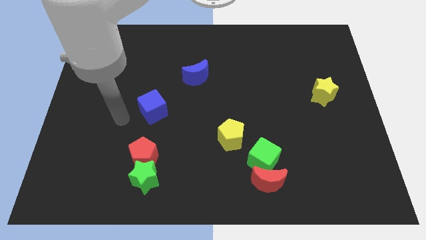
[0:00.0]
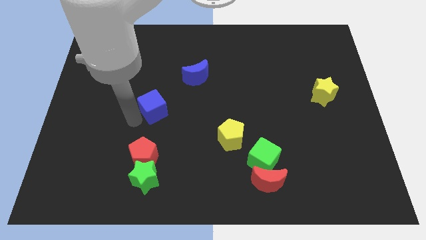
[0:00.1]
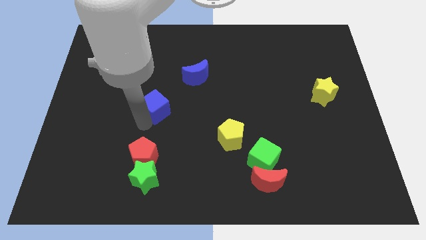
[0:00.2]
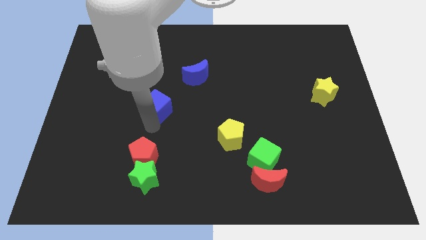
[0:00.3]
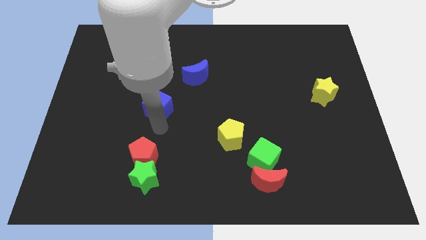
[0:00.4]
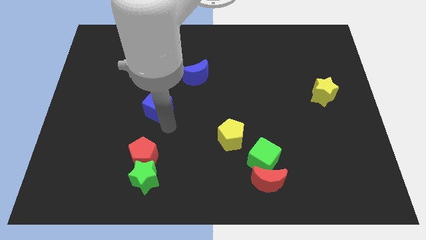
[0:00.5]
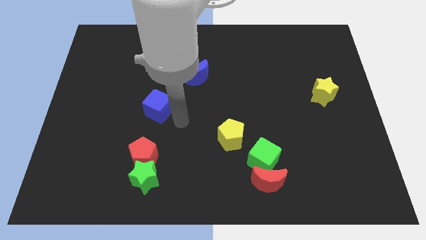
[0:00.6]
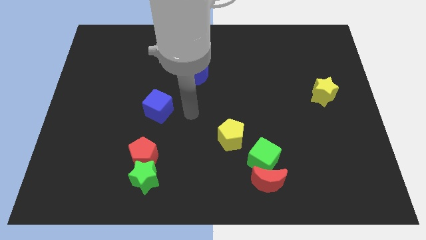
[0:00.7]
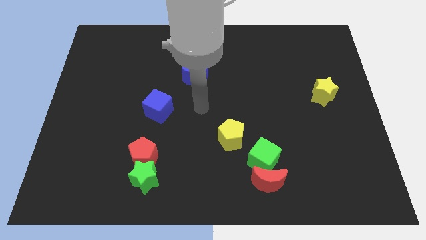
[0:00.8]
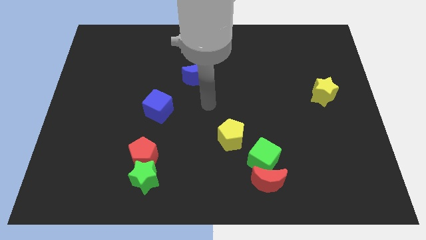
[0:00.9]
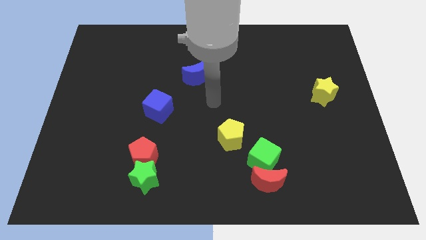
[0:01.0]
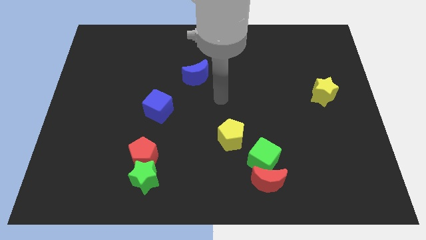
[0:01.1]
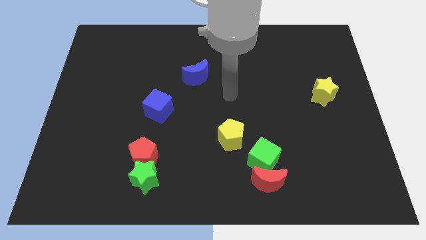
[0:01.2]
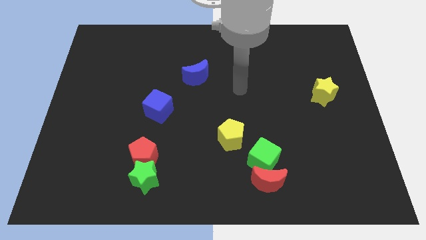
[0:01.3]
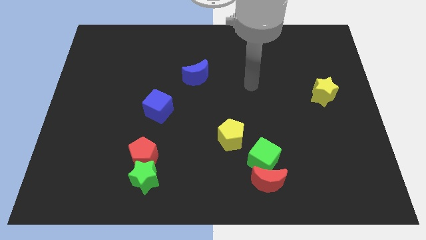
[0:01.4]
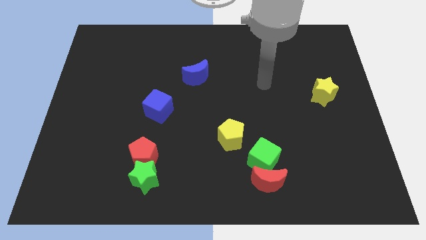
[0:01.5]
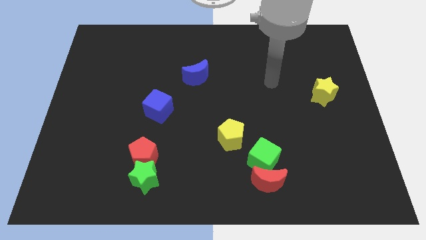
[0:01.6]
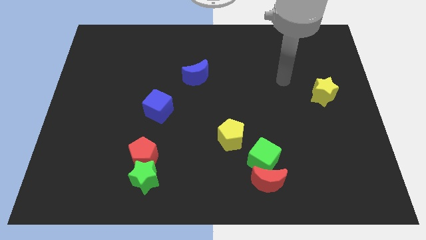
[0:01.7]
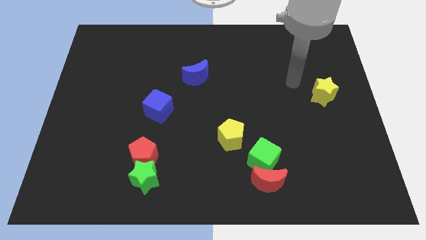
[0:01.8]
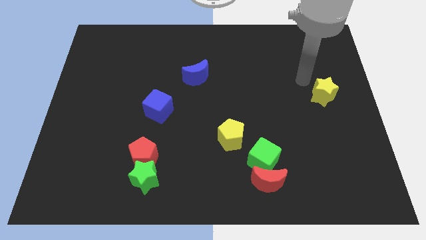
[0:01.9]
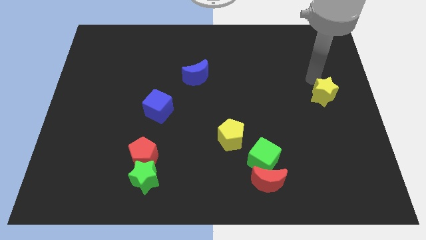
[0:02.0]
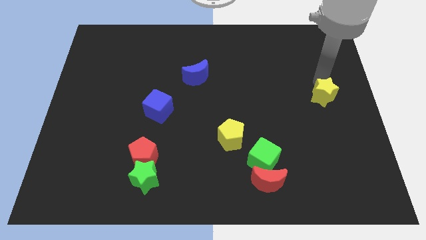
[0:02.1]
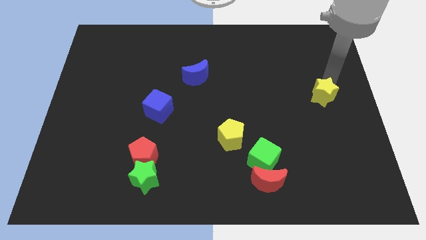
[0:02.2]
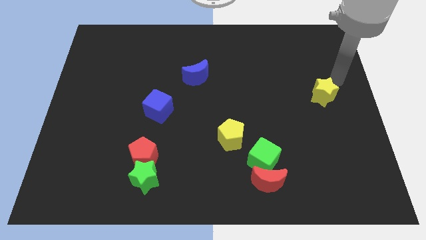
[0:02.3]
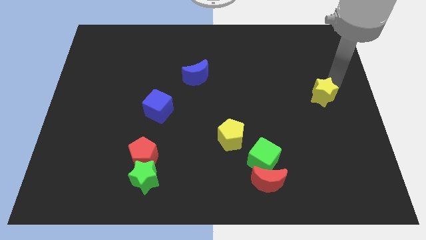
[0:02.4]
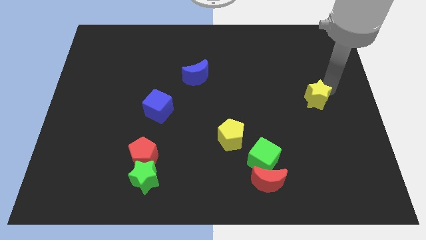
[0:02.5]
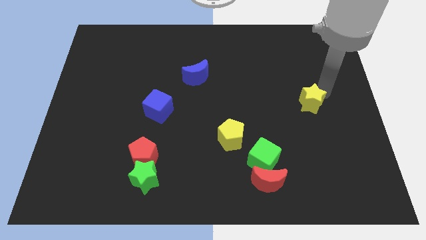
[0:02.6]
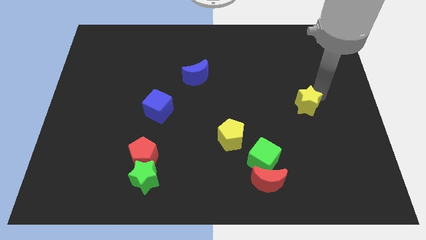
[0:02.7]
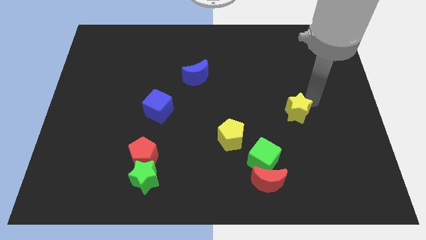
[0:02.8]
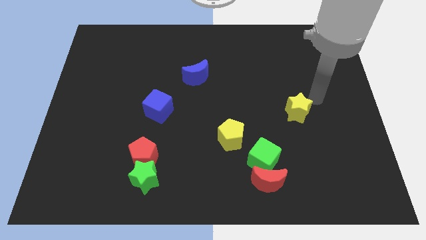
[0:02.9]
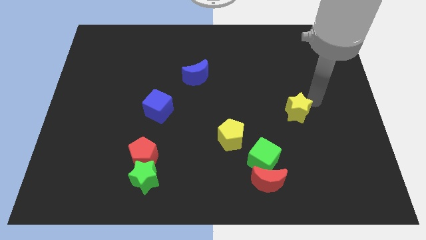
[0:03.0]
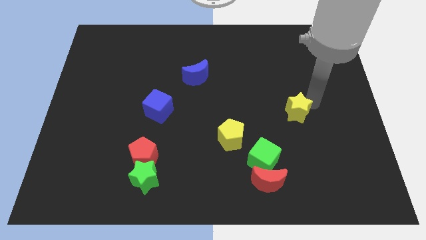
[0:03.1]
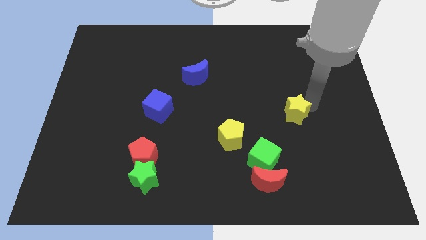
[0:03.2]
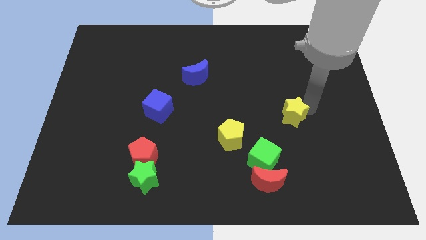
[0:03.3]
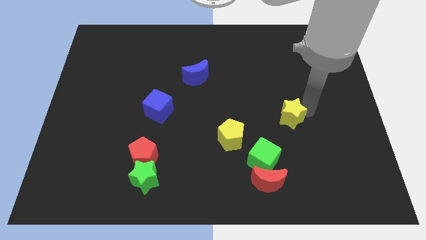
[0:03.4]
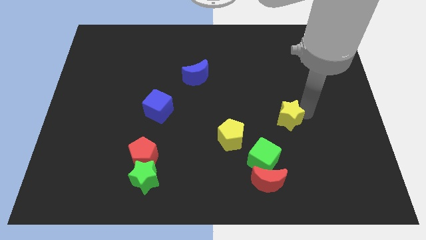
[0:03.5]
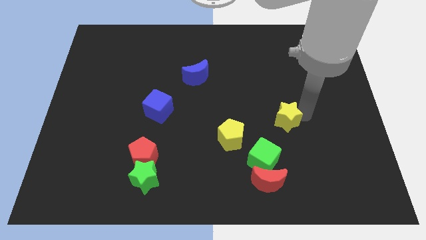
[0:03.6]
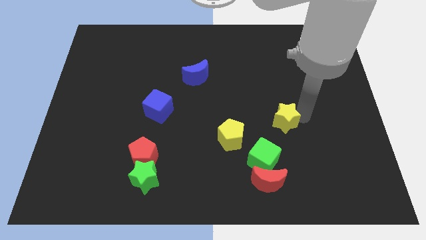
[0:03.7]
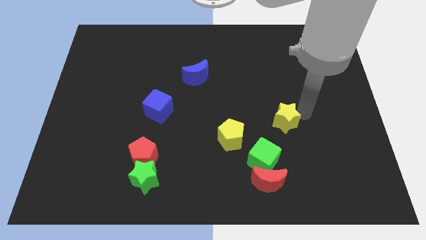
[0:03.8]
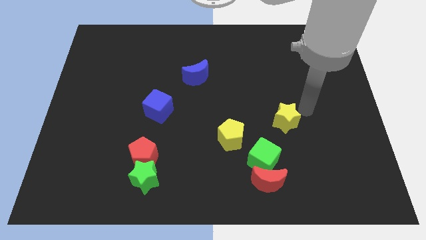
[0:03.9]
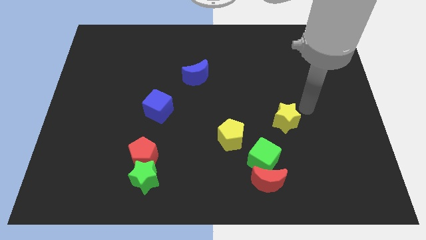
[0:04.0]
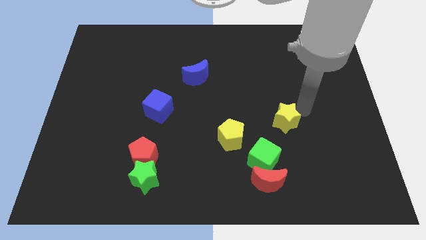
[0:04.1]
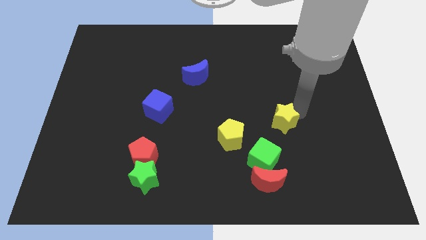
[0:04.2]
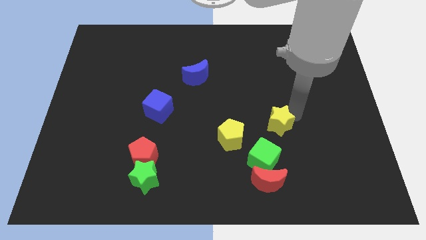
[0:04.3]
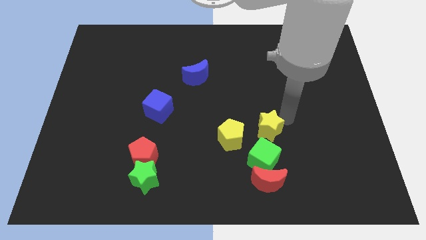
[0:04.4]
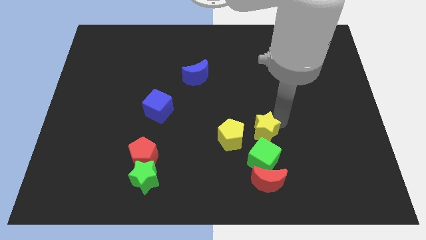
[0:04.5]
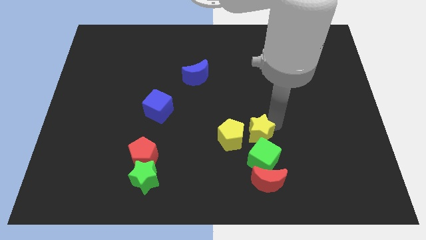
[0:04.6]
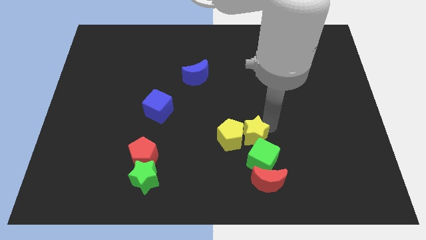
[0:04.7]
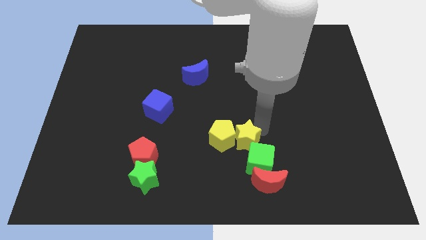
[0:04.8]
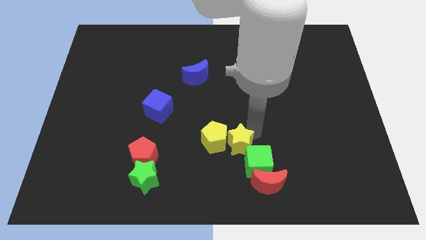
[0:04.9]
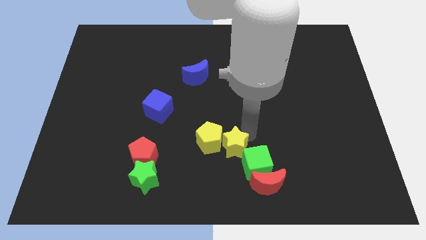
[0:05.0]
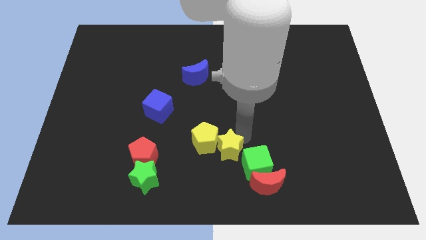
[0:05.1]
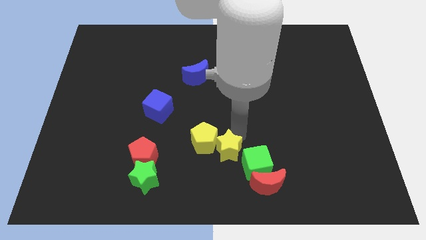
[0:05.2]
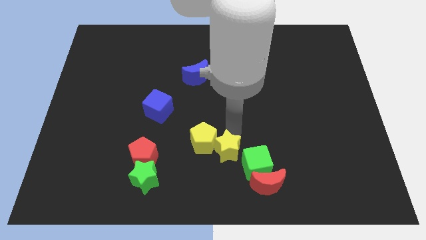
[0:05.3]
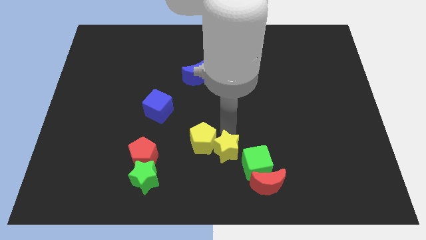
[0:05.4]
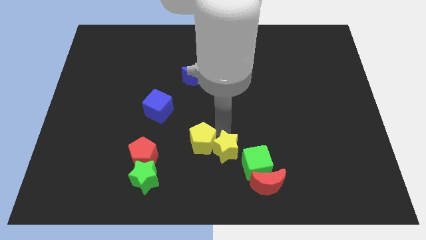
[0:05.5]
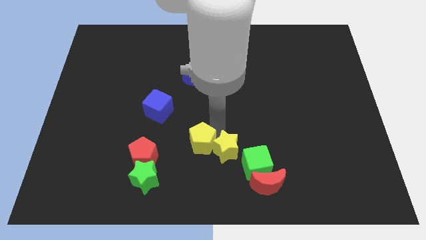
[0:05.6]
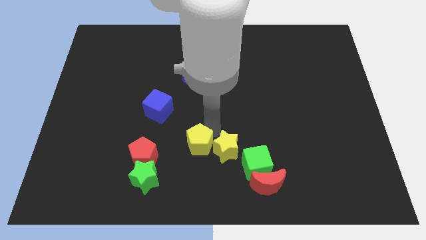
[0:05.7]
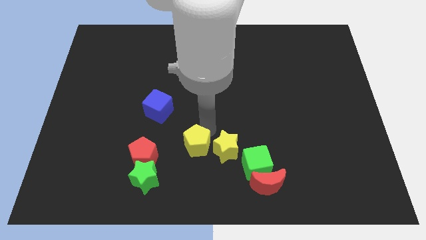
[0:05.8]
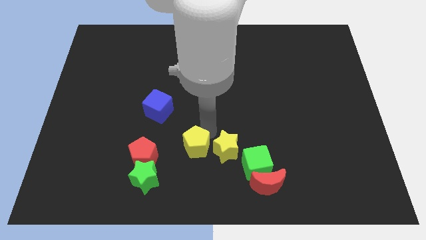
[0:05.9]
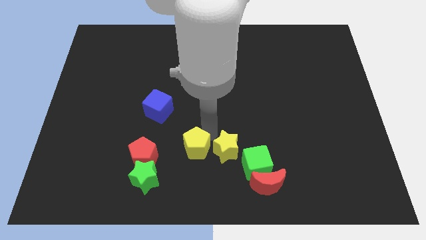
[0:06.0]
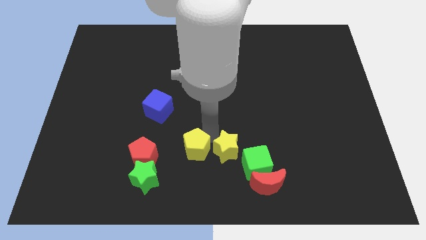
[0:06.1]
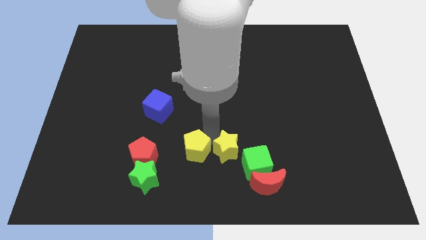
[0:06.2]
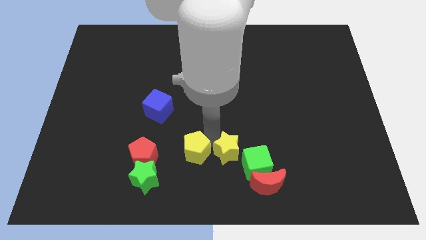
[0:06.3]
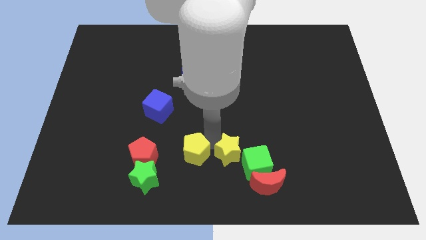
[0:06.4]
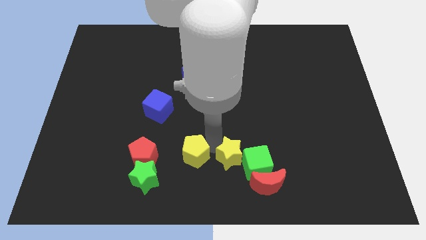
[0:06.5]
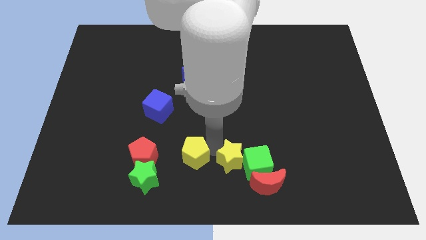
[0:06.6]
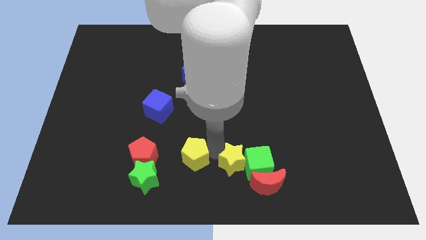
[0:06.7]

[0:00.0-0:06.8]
push the yellow star to the bottom left side of the green cube
